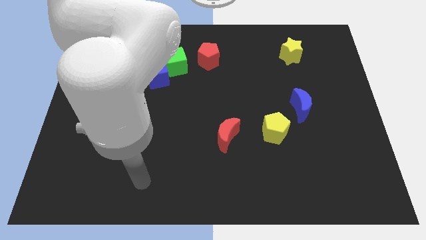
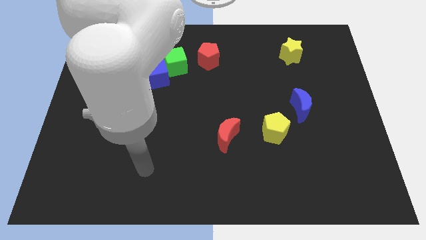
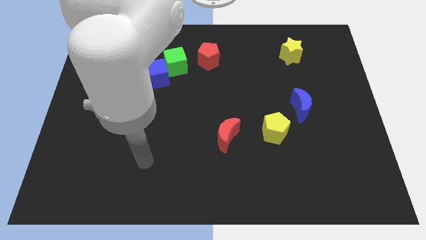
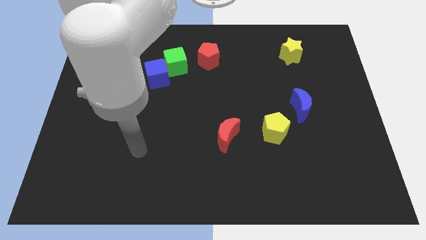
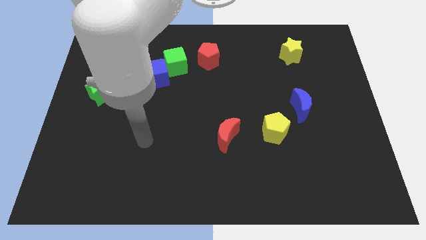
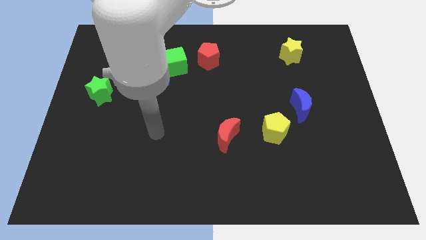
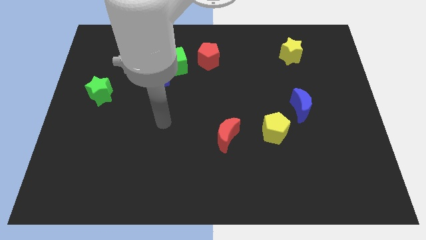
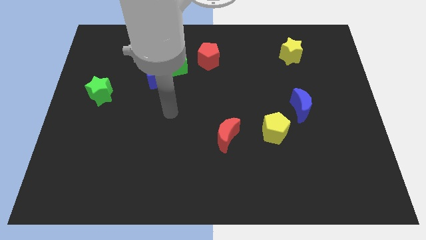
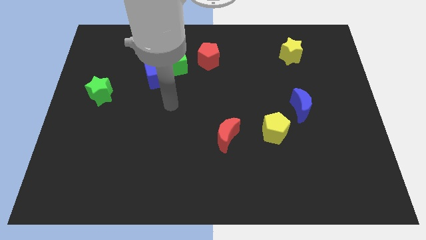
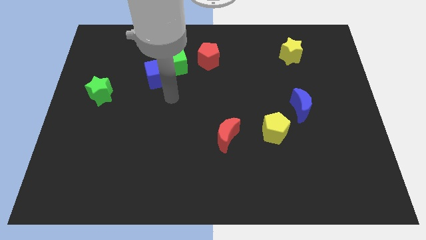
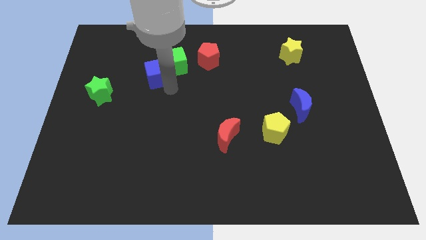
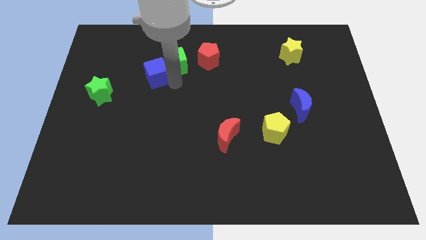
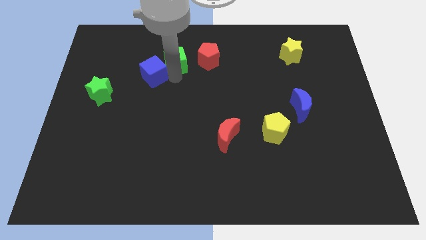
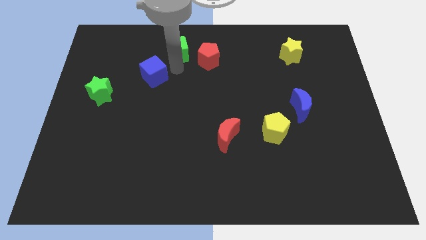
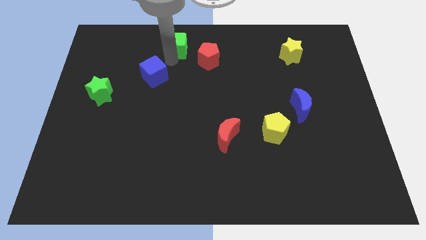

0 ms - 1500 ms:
pull the blue cube apart from the green cube

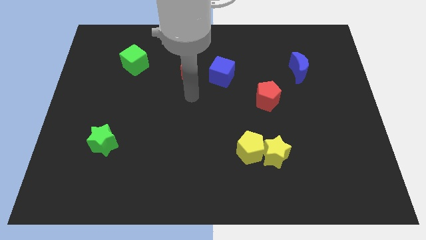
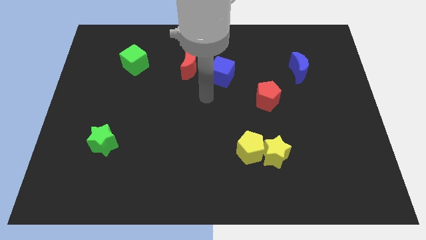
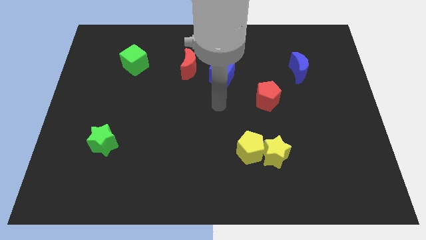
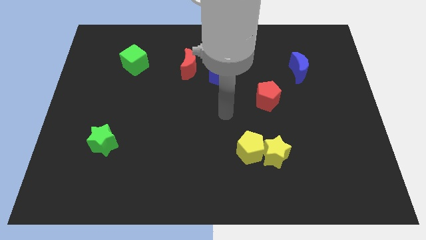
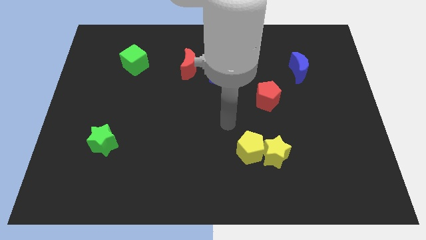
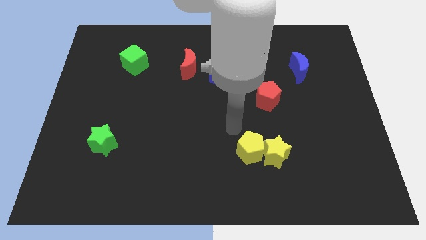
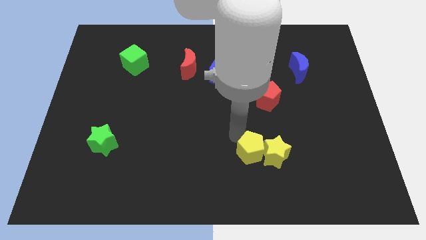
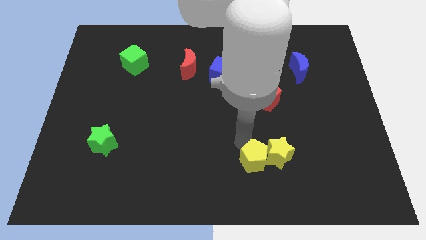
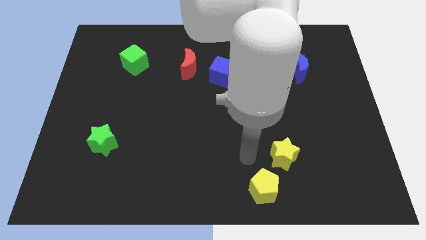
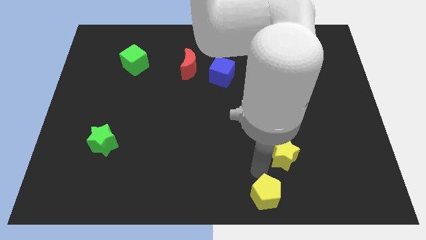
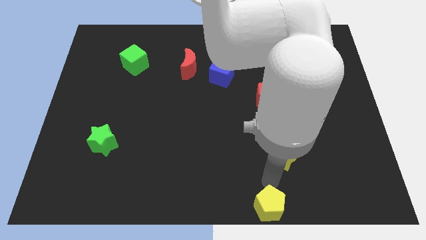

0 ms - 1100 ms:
move the yellow star away from the yellow pentagon

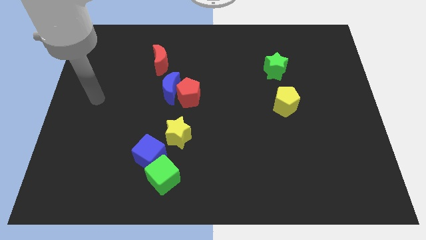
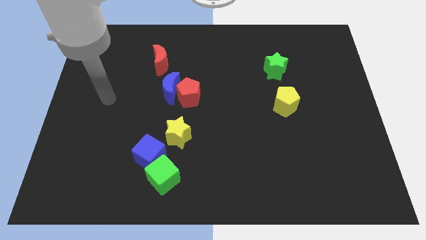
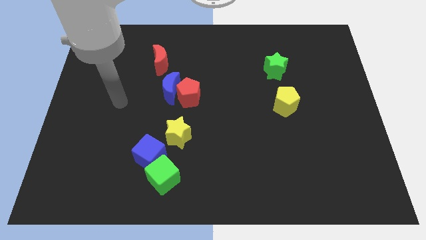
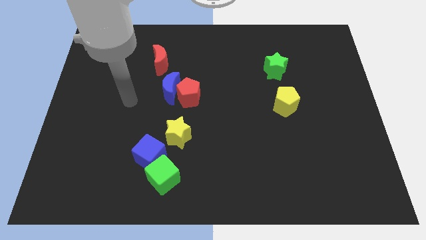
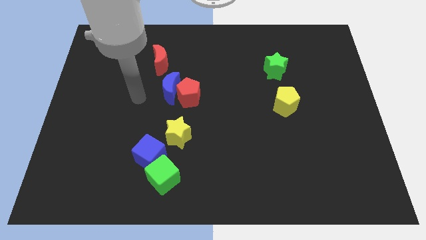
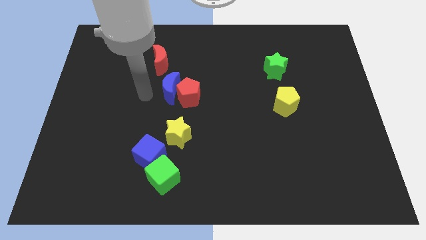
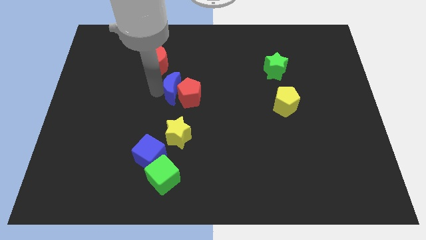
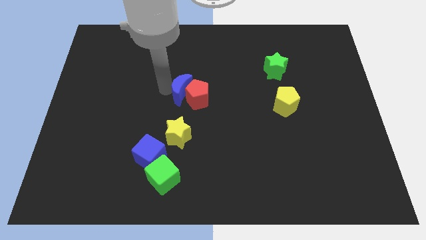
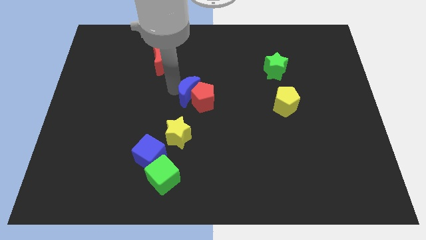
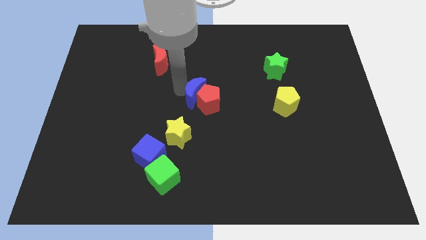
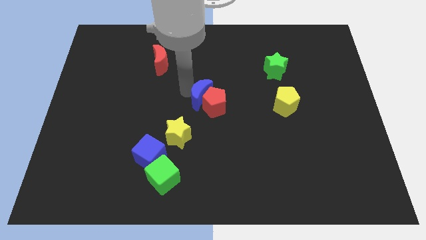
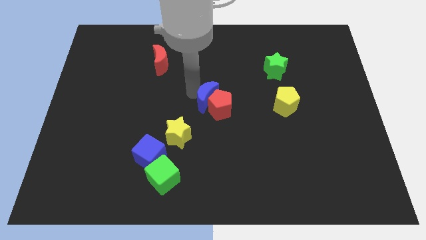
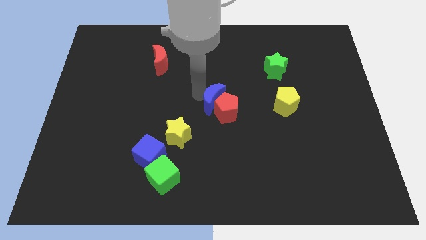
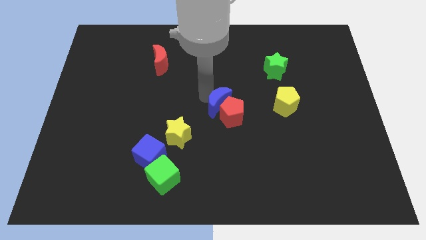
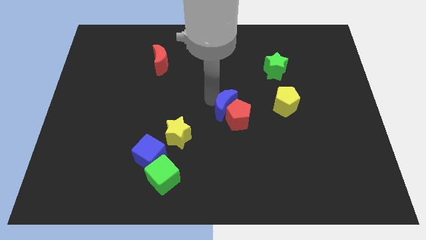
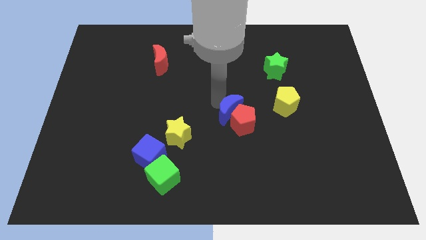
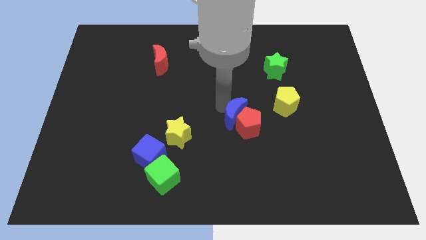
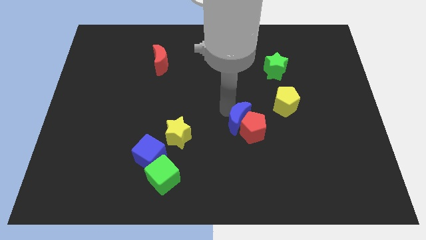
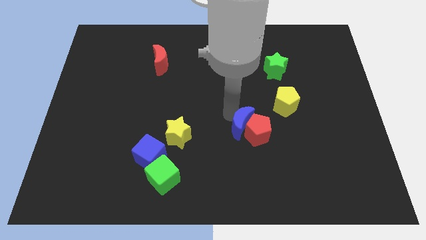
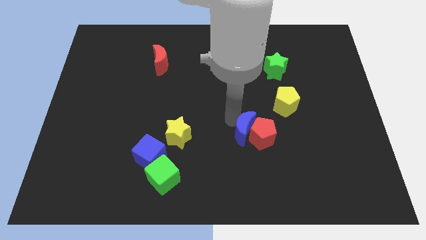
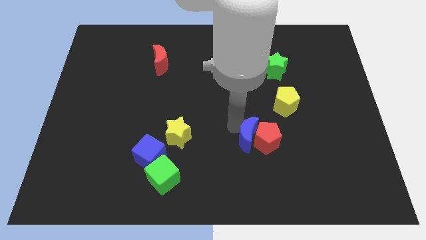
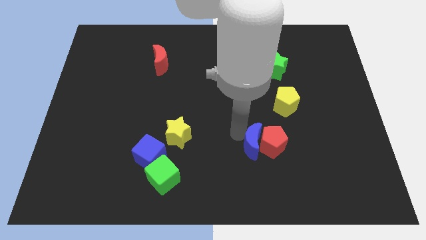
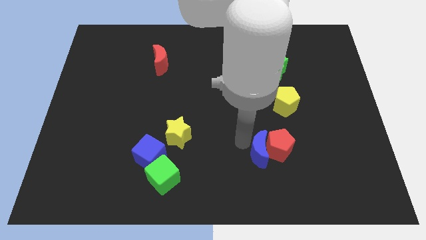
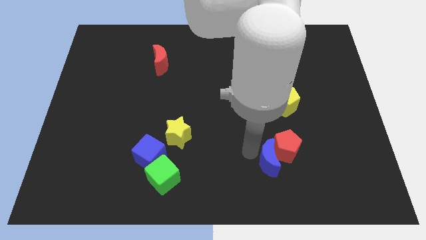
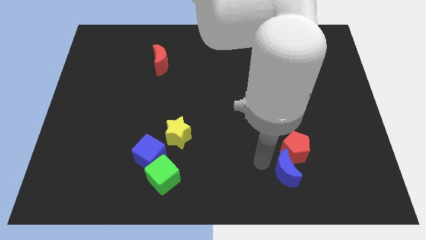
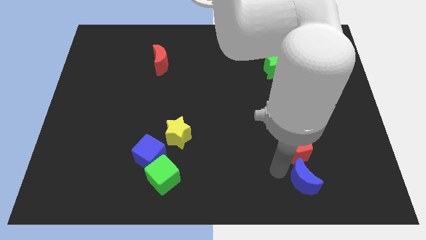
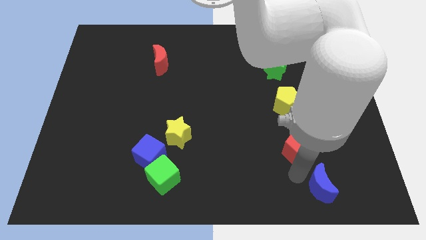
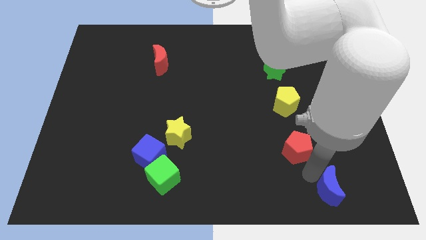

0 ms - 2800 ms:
pull the red pentagon apart from the blue moon

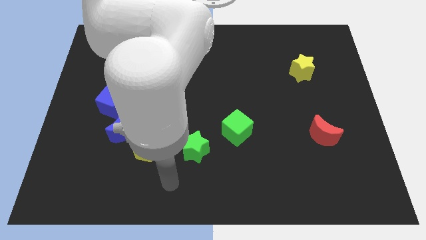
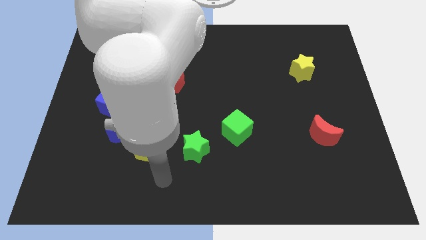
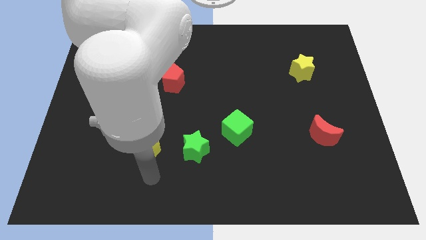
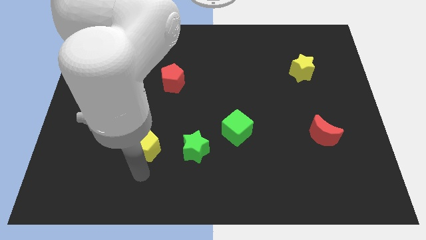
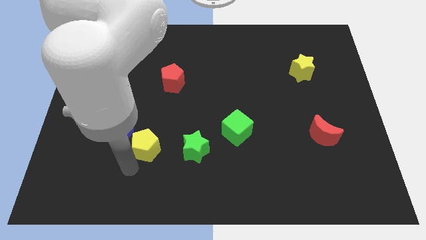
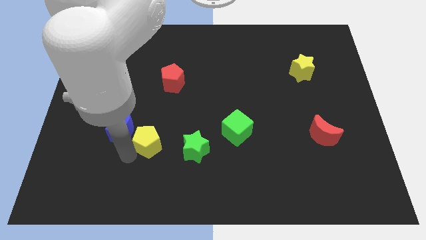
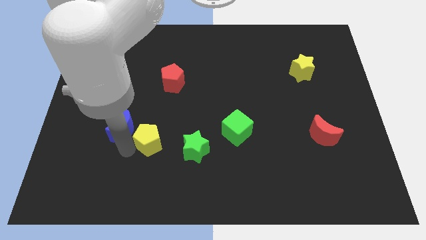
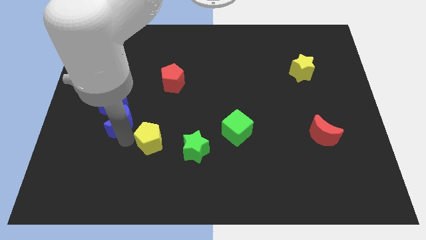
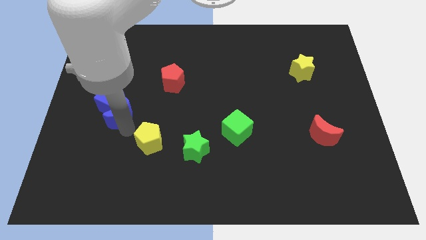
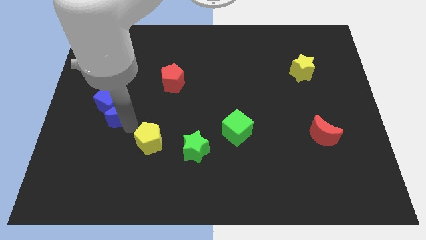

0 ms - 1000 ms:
separate the yellow pentagon from the blue moon

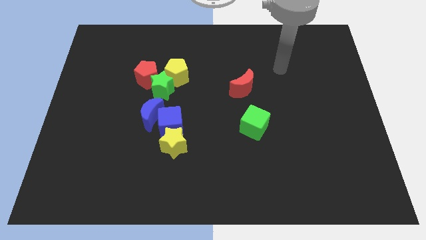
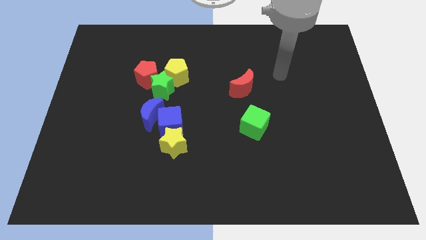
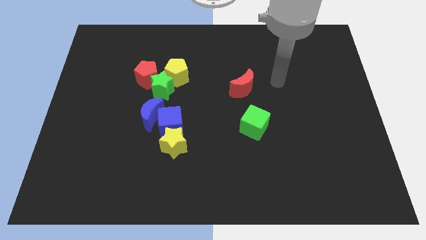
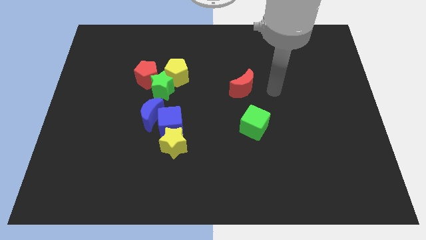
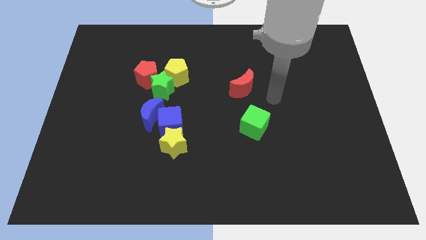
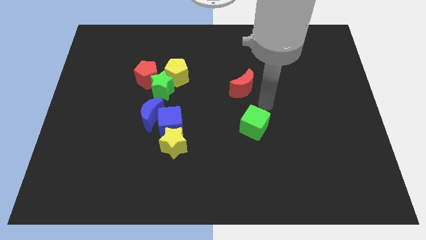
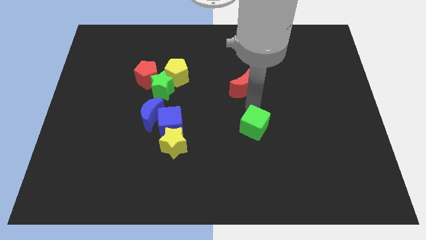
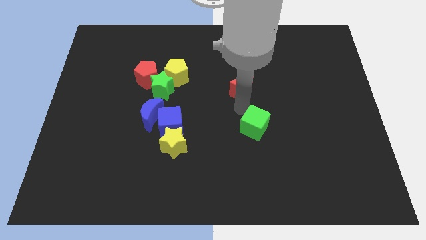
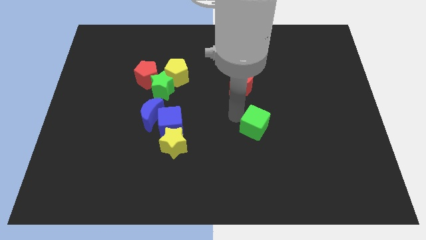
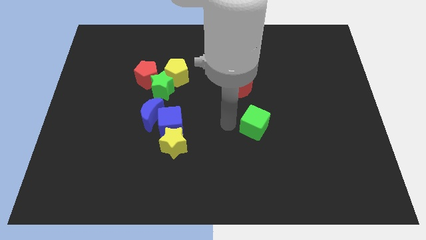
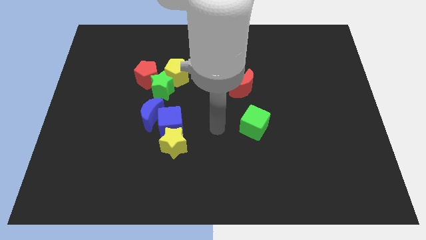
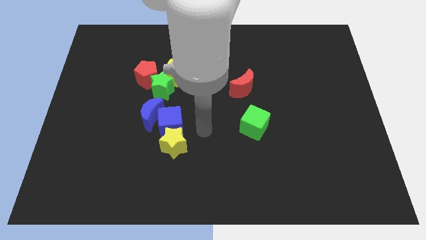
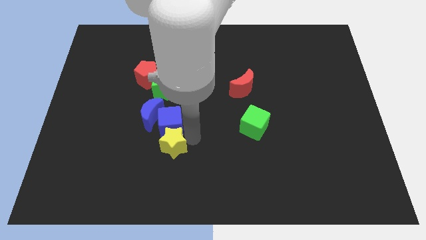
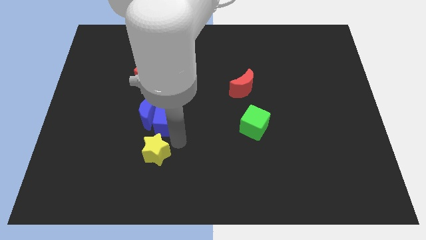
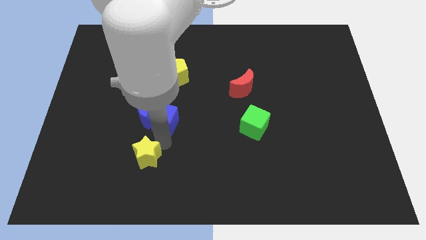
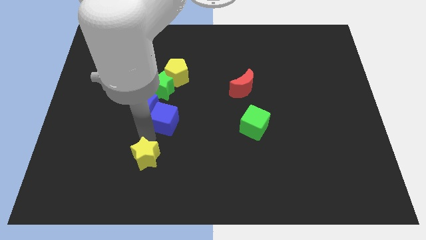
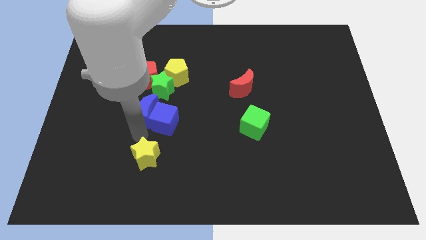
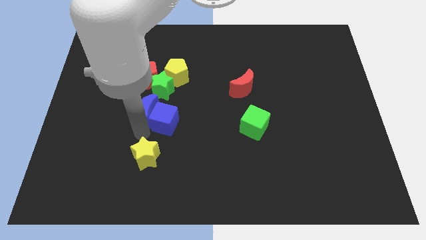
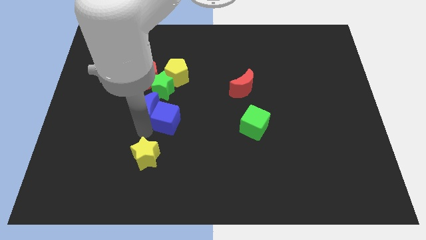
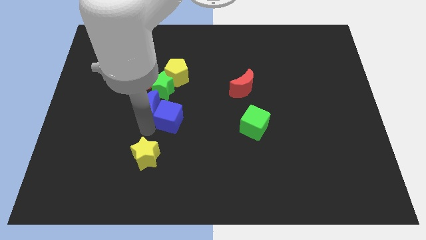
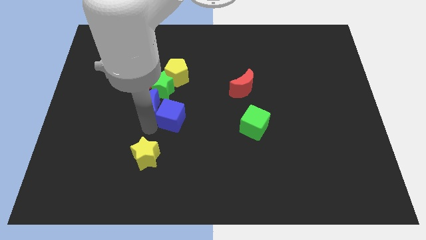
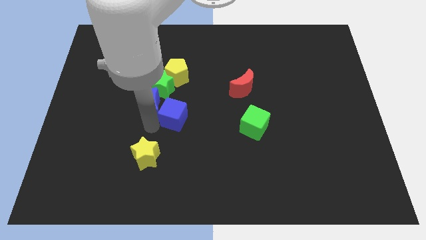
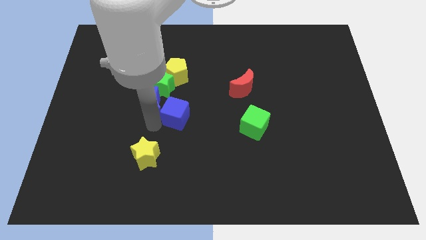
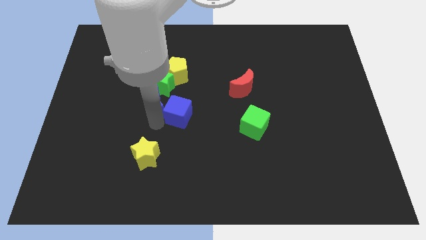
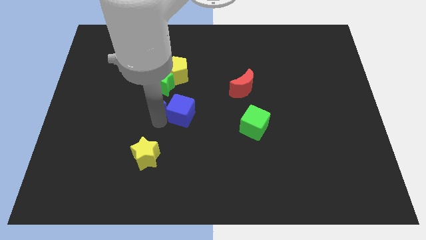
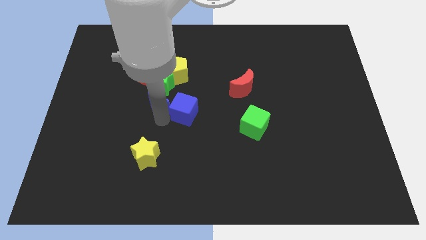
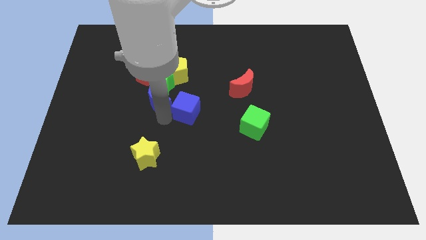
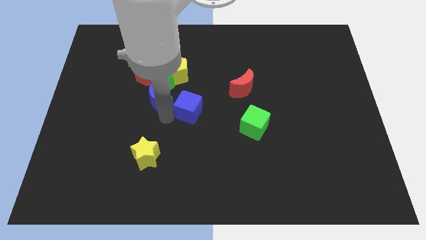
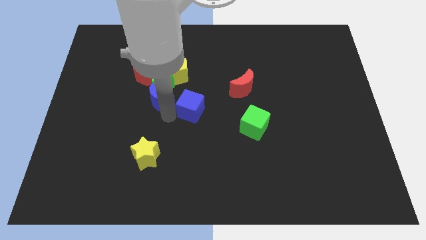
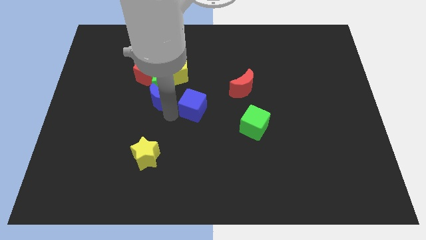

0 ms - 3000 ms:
separate the blue cube from the blue moon and yellow star
